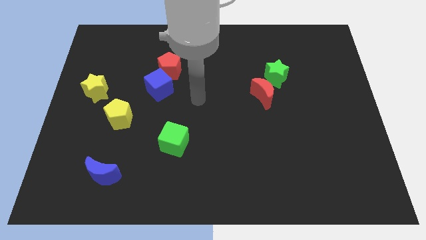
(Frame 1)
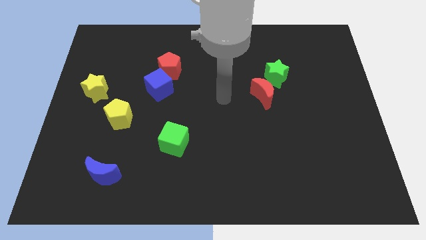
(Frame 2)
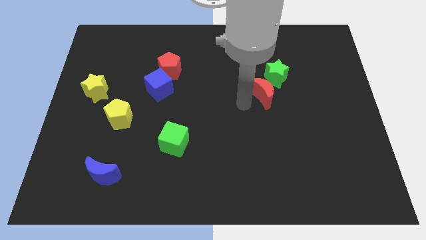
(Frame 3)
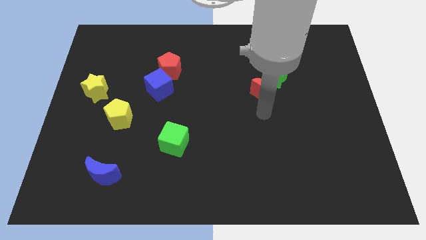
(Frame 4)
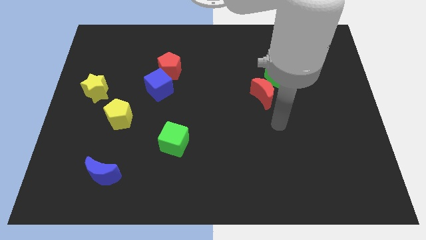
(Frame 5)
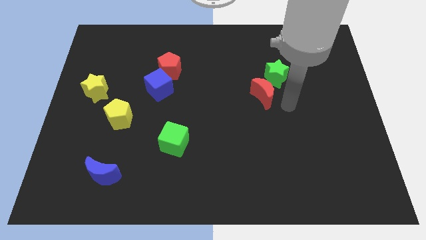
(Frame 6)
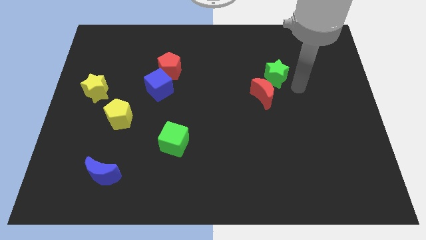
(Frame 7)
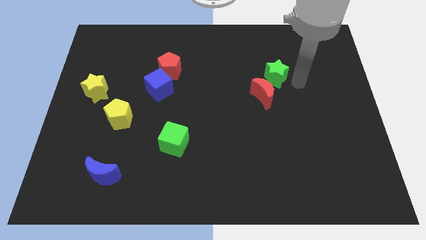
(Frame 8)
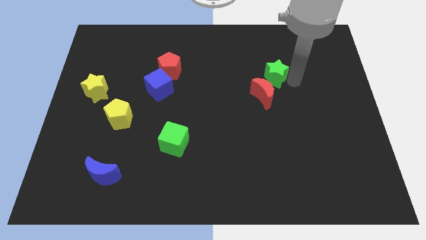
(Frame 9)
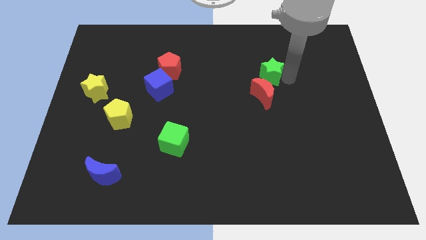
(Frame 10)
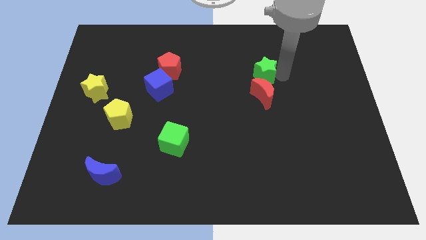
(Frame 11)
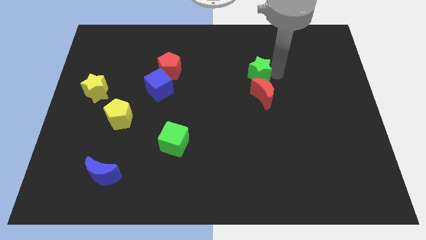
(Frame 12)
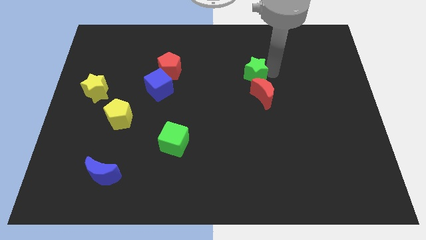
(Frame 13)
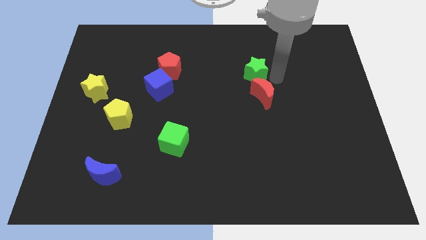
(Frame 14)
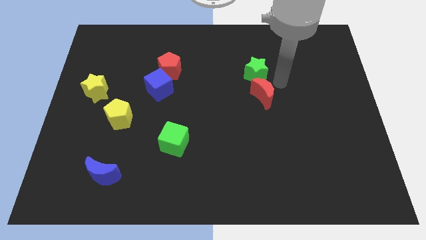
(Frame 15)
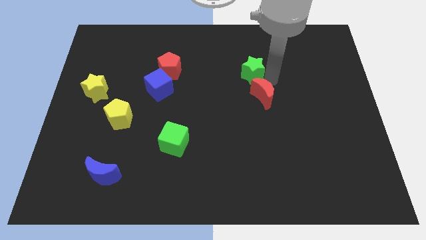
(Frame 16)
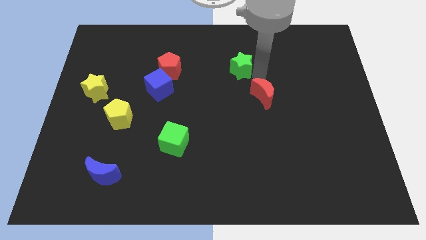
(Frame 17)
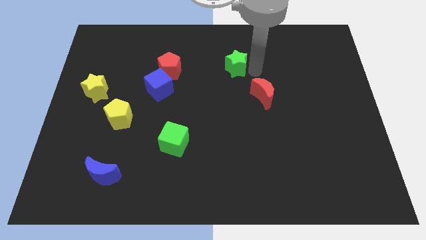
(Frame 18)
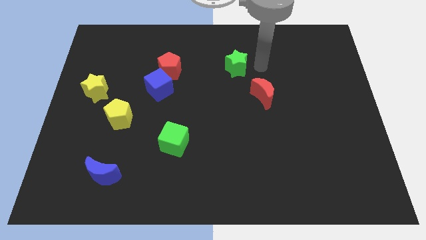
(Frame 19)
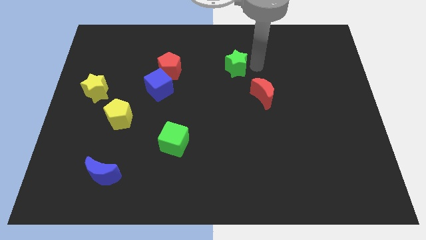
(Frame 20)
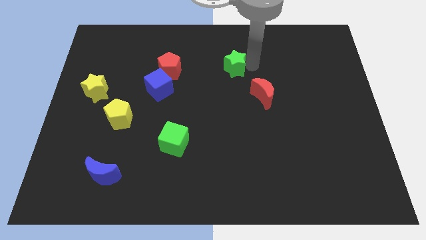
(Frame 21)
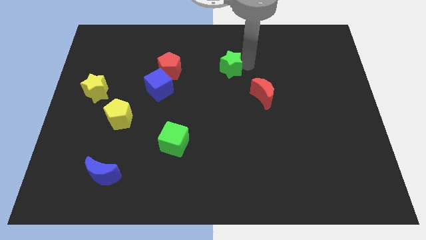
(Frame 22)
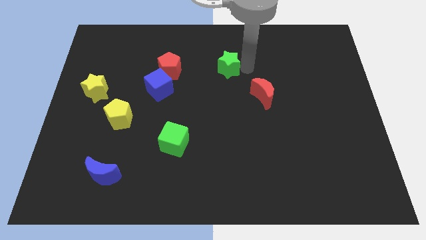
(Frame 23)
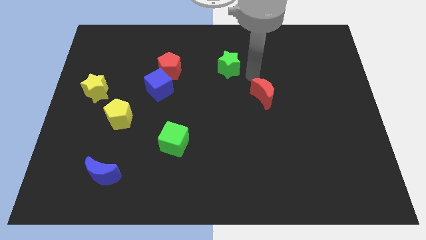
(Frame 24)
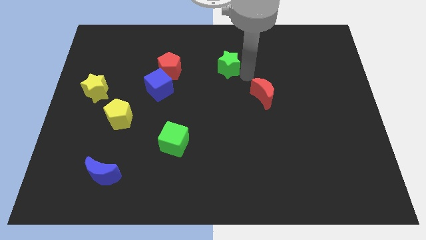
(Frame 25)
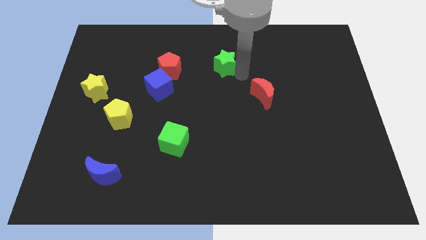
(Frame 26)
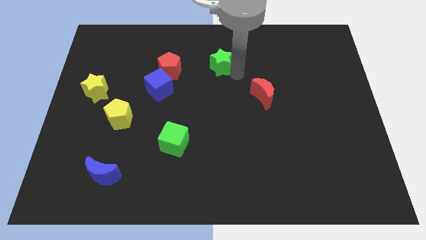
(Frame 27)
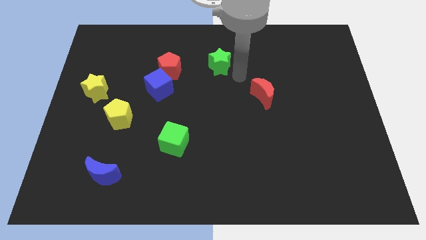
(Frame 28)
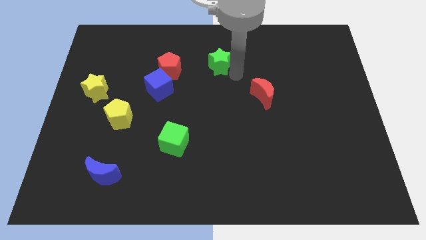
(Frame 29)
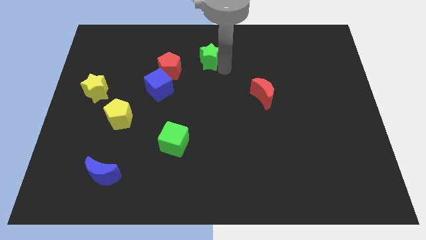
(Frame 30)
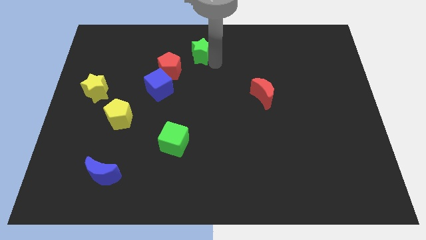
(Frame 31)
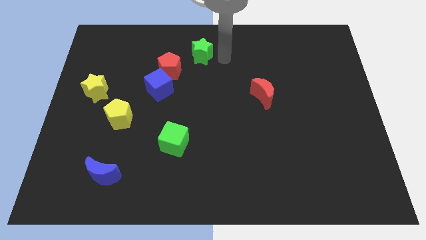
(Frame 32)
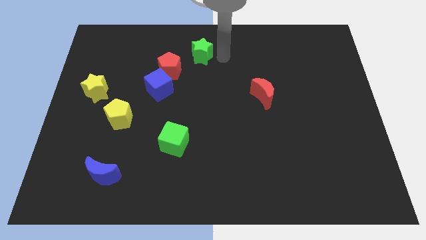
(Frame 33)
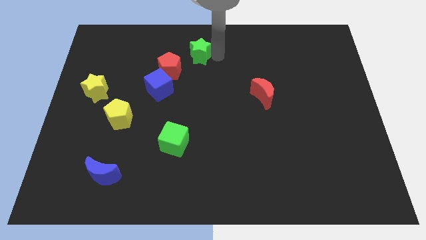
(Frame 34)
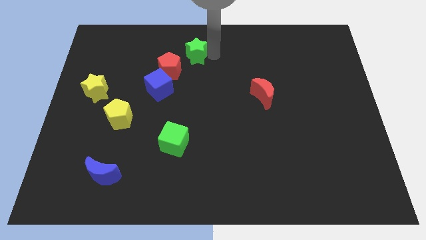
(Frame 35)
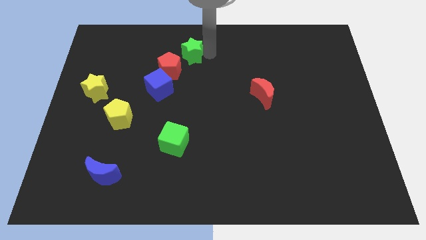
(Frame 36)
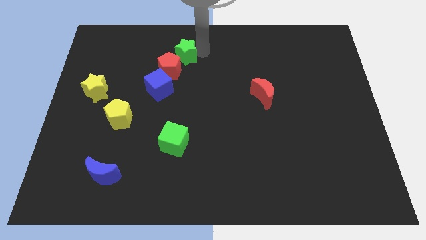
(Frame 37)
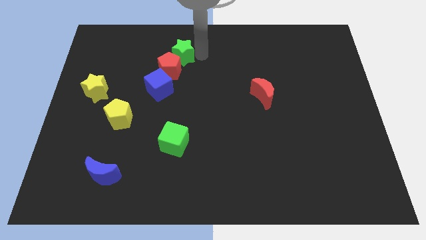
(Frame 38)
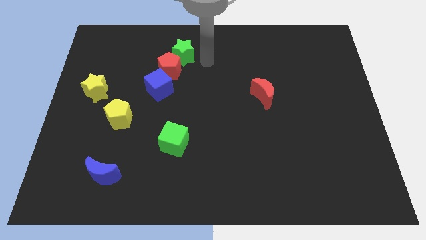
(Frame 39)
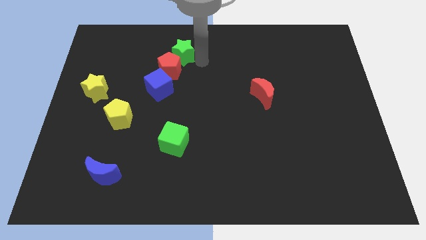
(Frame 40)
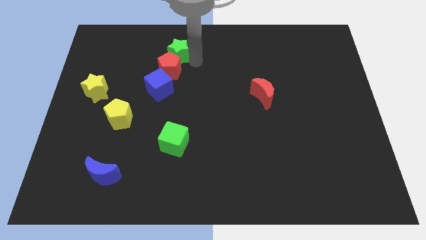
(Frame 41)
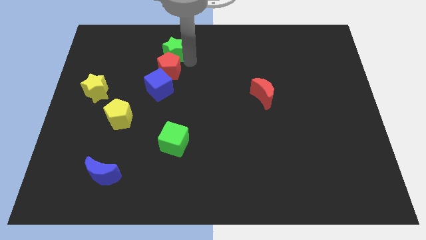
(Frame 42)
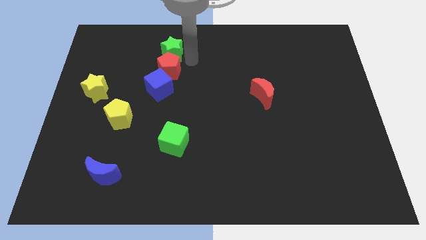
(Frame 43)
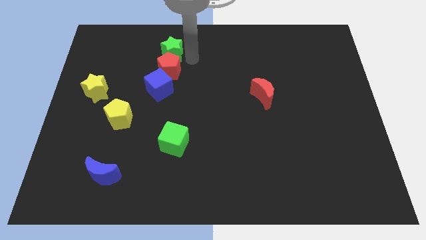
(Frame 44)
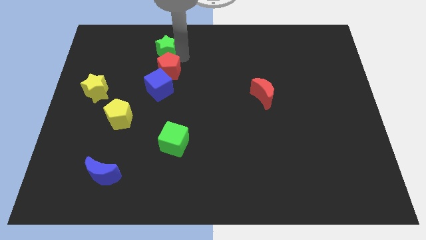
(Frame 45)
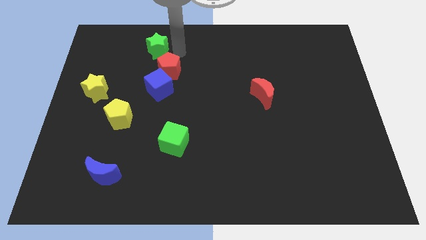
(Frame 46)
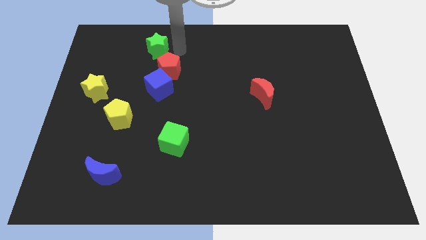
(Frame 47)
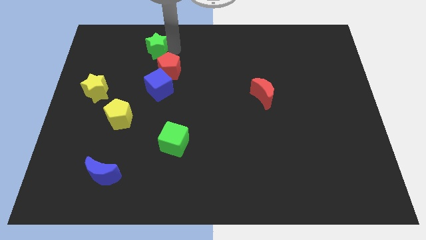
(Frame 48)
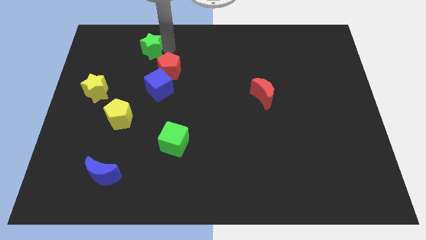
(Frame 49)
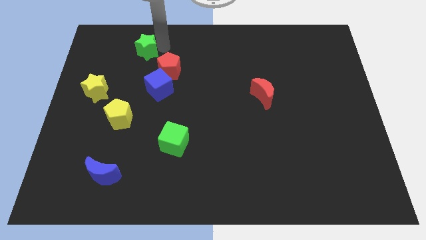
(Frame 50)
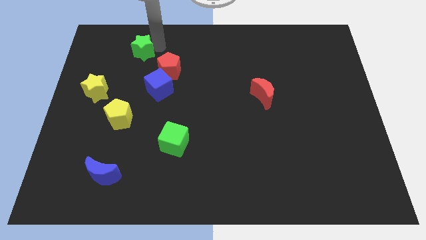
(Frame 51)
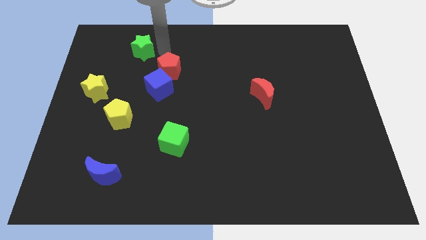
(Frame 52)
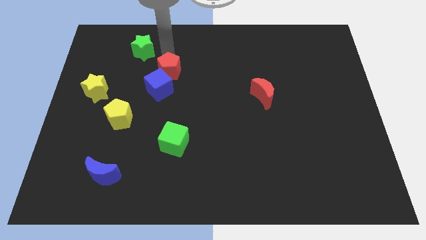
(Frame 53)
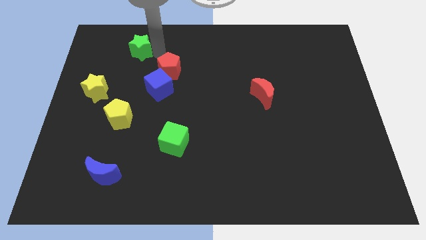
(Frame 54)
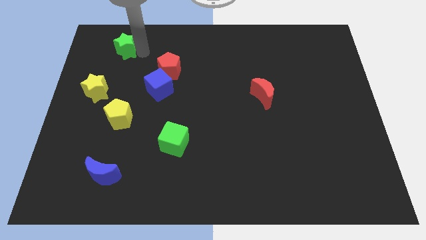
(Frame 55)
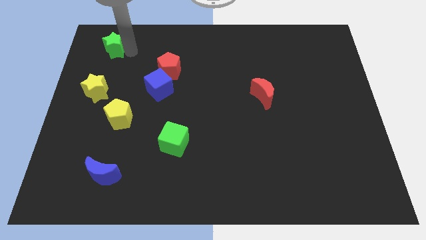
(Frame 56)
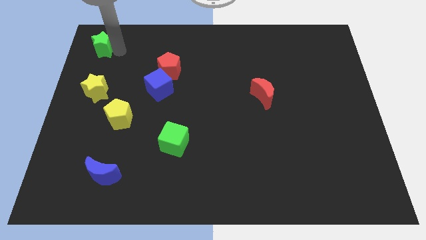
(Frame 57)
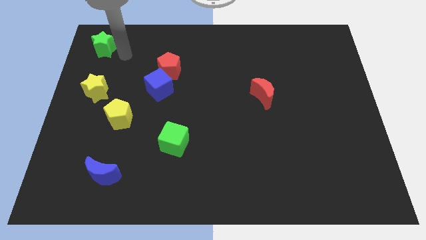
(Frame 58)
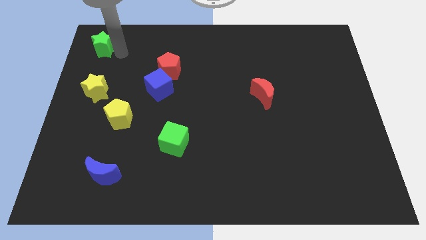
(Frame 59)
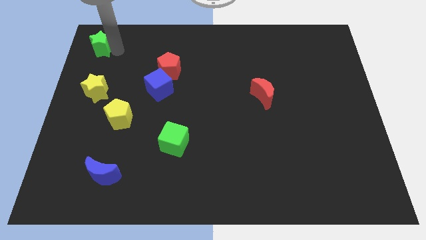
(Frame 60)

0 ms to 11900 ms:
put the green star to the top left

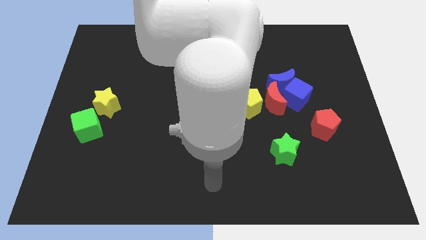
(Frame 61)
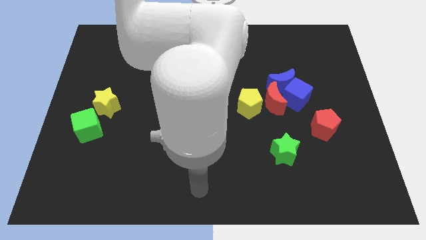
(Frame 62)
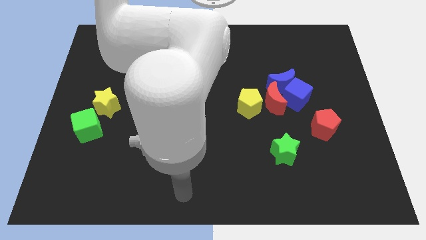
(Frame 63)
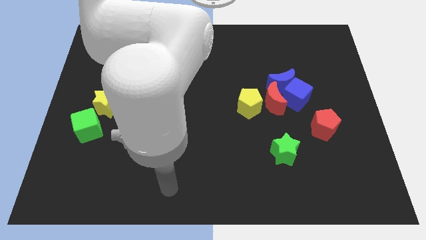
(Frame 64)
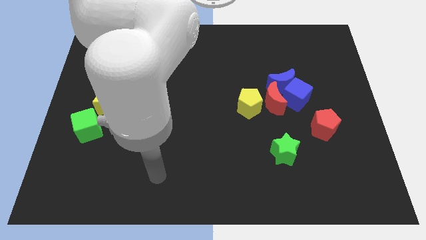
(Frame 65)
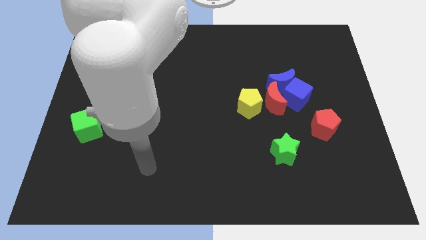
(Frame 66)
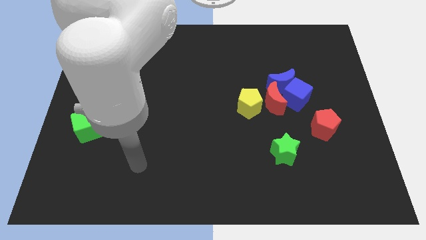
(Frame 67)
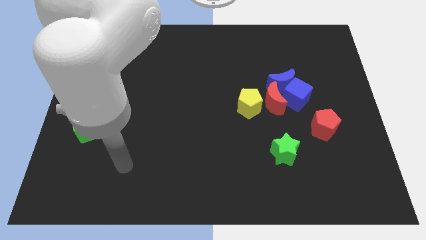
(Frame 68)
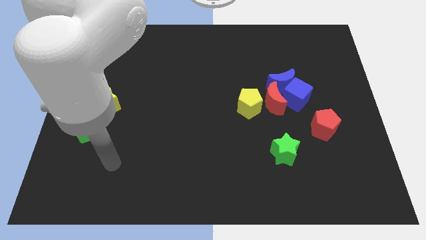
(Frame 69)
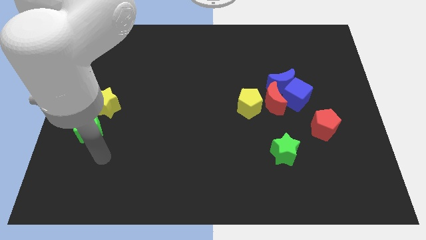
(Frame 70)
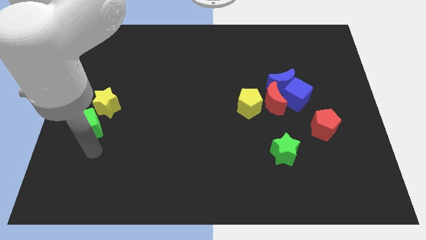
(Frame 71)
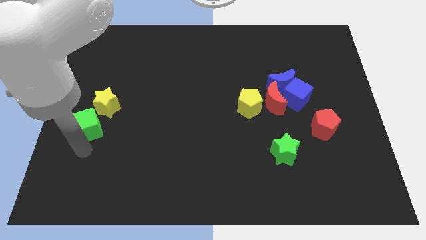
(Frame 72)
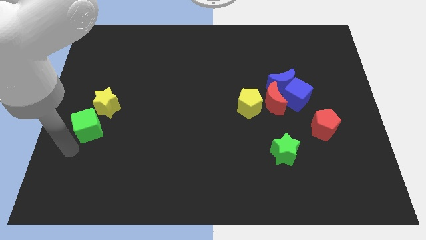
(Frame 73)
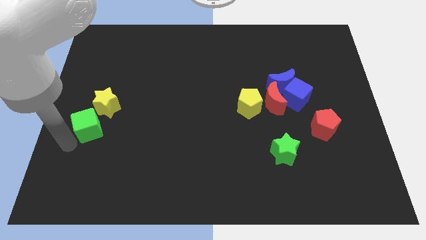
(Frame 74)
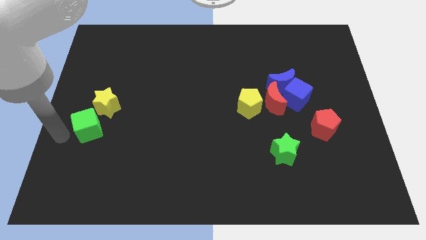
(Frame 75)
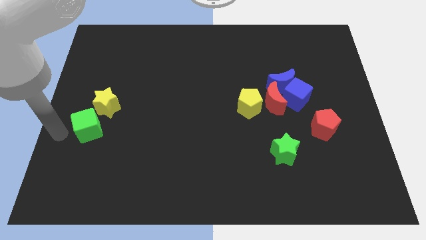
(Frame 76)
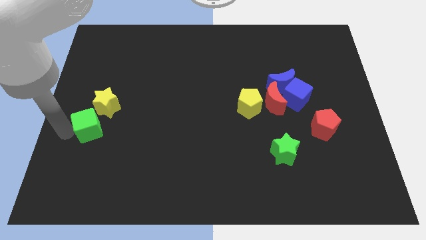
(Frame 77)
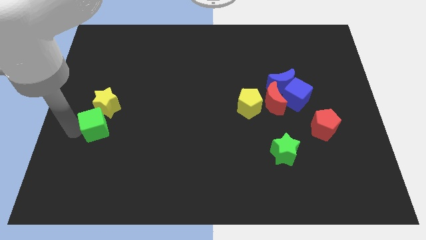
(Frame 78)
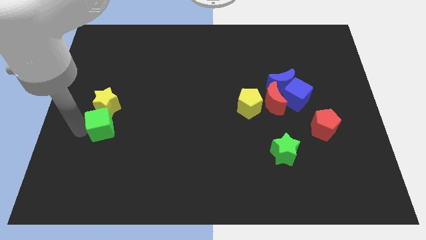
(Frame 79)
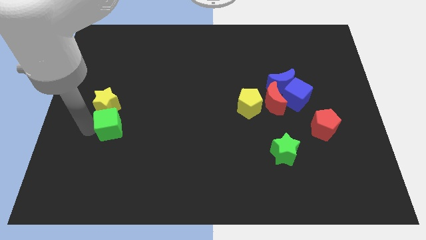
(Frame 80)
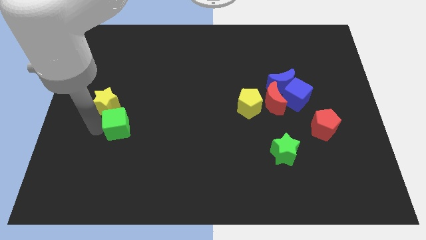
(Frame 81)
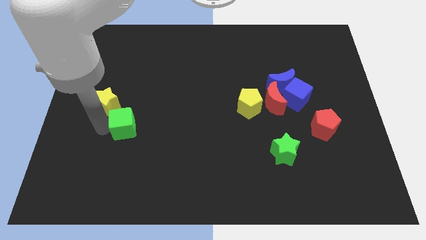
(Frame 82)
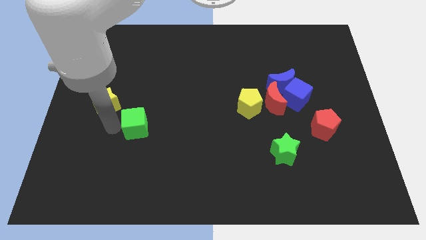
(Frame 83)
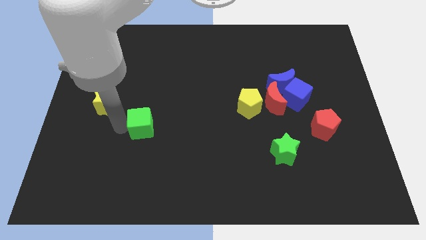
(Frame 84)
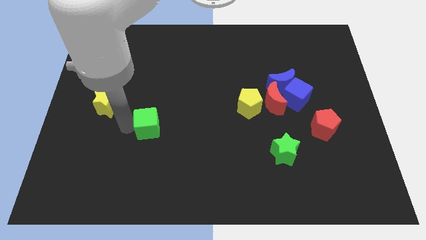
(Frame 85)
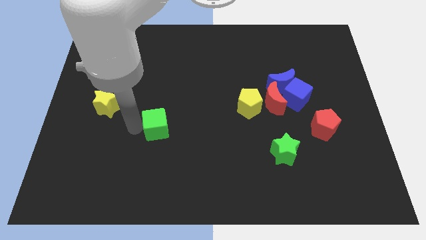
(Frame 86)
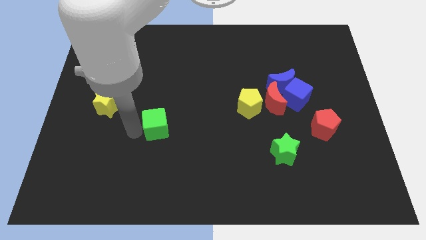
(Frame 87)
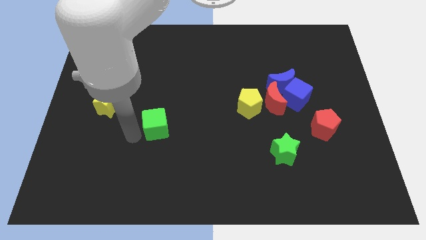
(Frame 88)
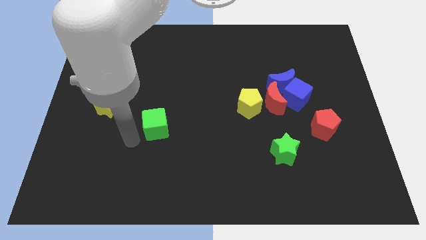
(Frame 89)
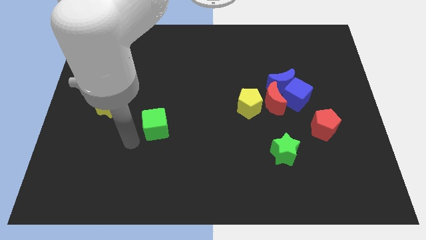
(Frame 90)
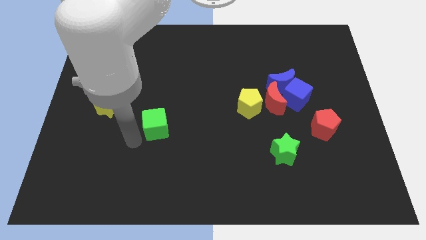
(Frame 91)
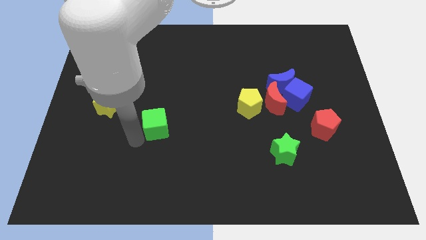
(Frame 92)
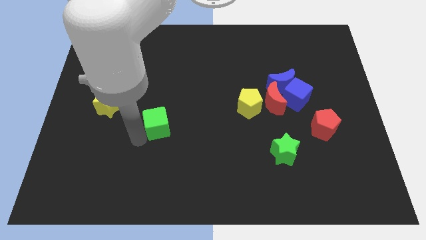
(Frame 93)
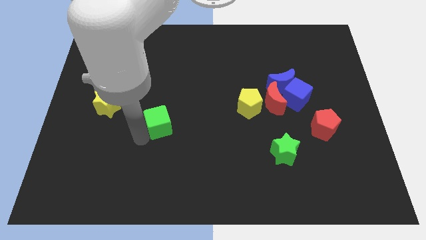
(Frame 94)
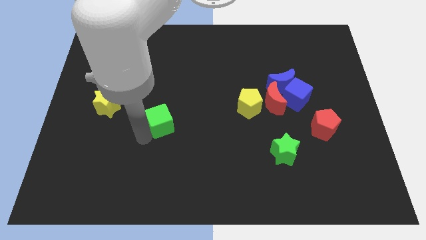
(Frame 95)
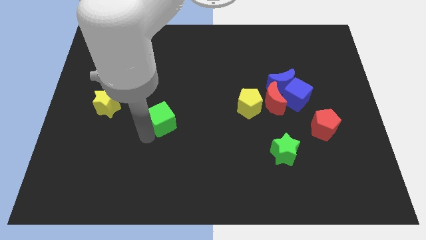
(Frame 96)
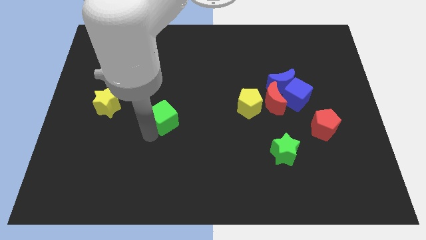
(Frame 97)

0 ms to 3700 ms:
slide the green cube to the middle of the board
